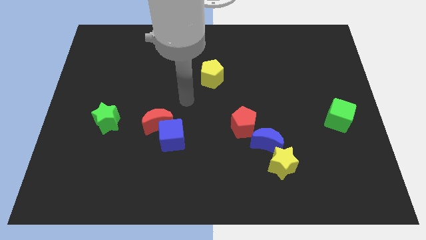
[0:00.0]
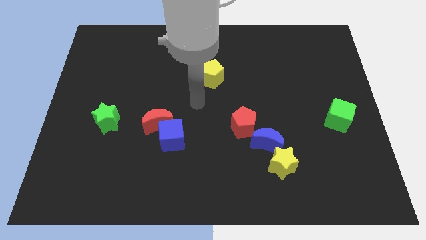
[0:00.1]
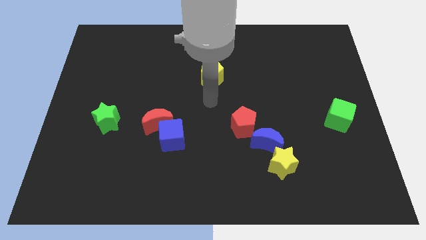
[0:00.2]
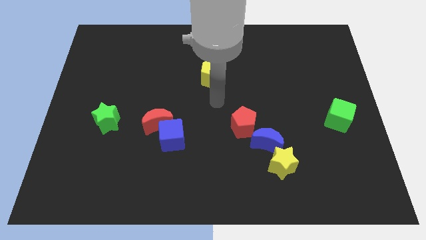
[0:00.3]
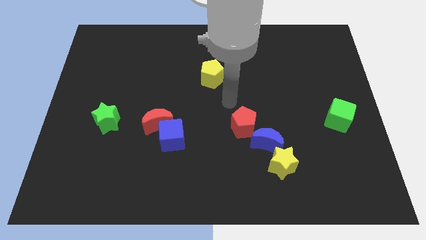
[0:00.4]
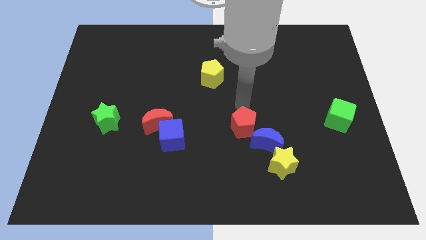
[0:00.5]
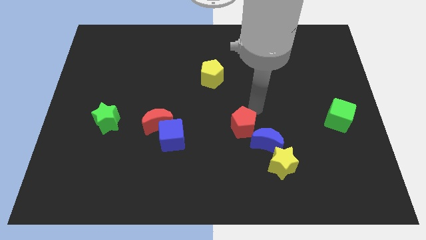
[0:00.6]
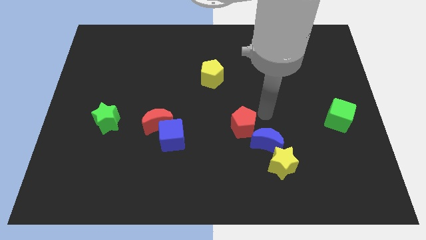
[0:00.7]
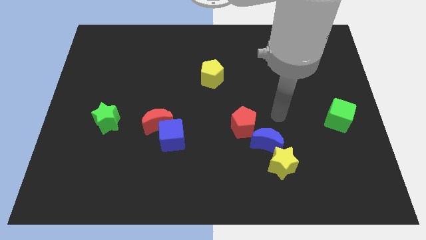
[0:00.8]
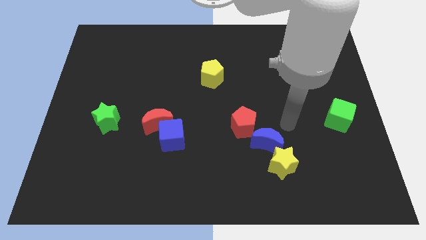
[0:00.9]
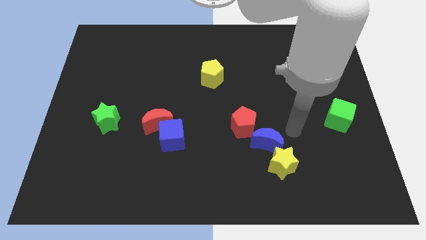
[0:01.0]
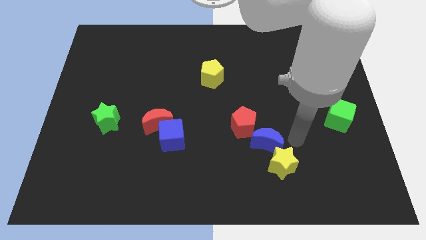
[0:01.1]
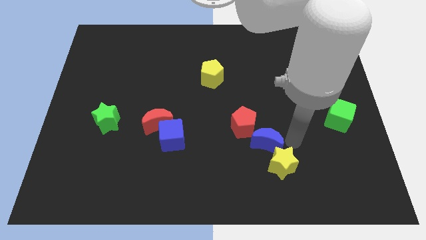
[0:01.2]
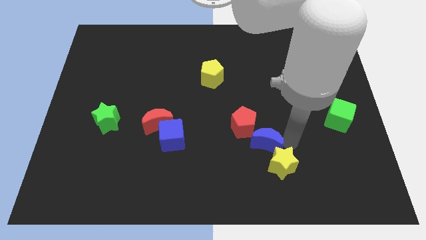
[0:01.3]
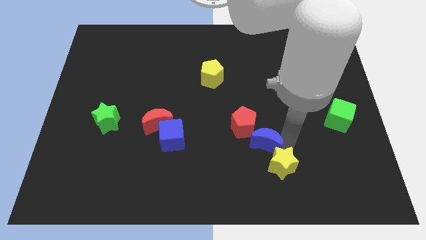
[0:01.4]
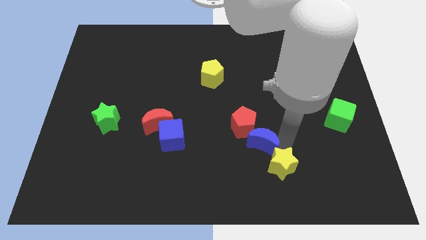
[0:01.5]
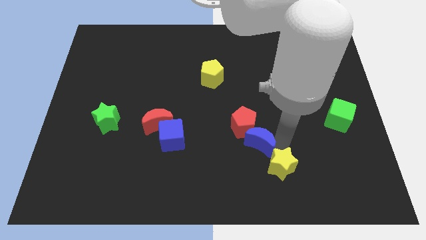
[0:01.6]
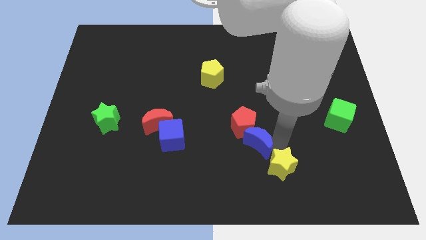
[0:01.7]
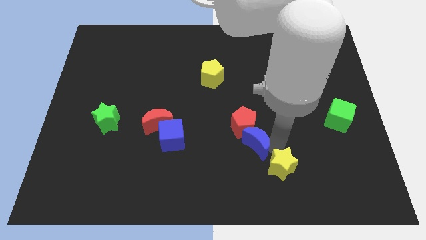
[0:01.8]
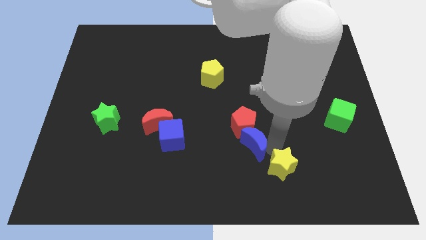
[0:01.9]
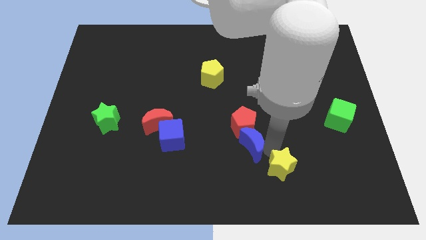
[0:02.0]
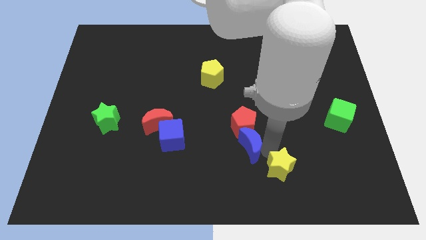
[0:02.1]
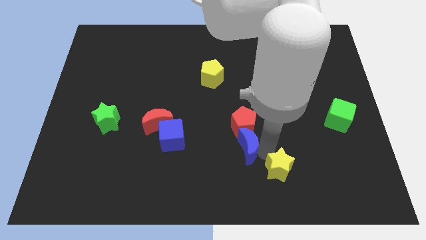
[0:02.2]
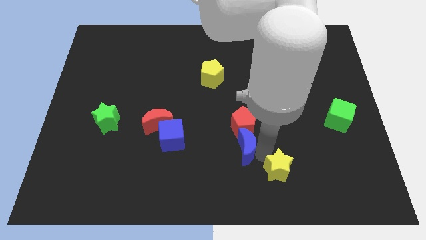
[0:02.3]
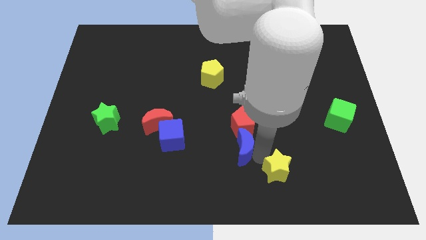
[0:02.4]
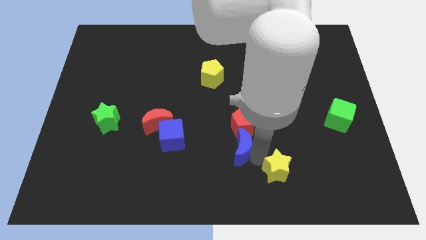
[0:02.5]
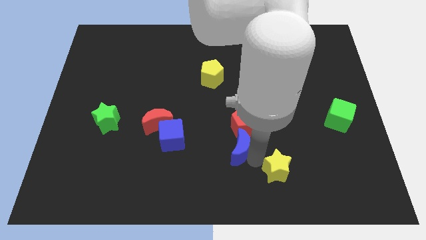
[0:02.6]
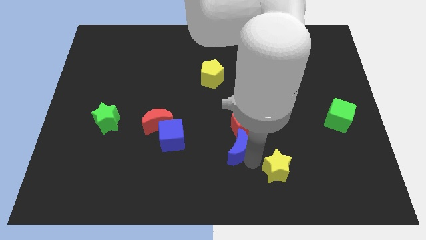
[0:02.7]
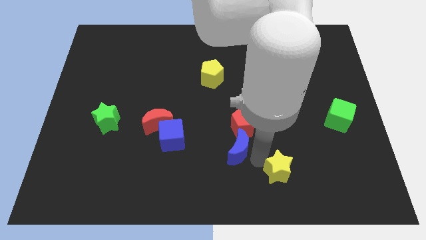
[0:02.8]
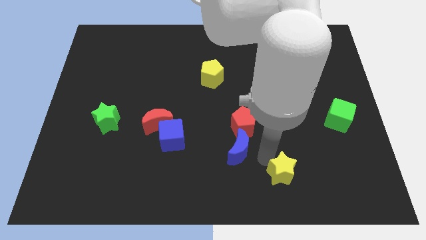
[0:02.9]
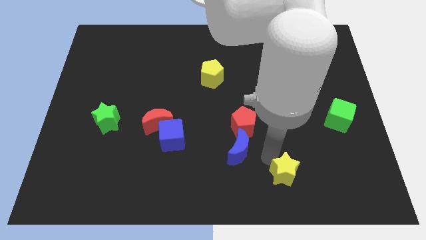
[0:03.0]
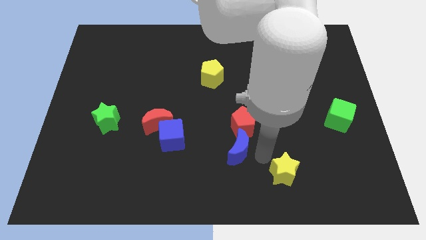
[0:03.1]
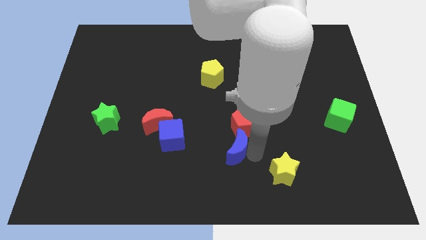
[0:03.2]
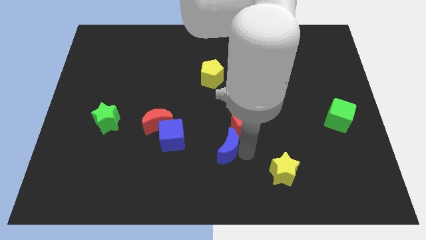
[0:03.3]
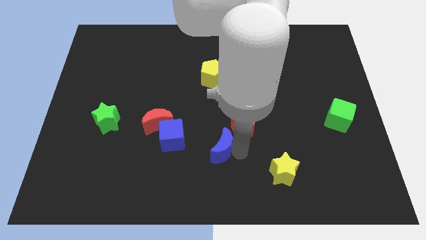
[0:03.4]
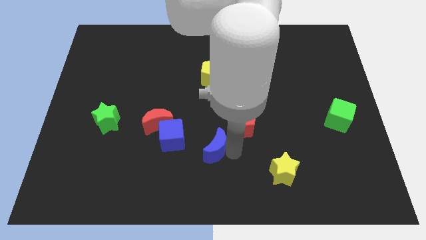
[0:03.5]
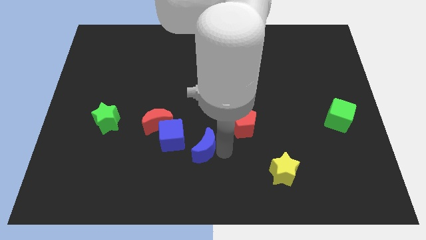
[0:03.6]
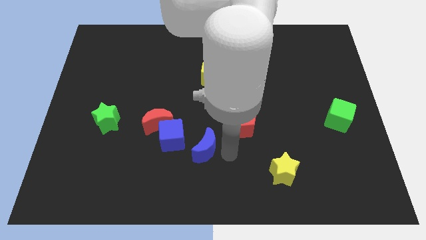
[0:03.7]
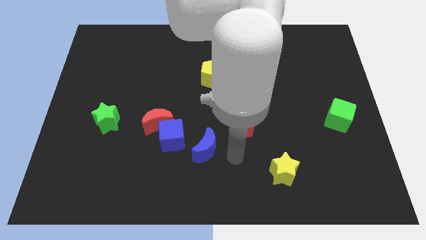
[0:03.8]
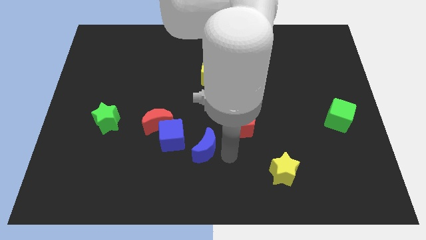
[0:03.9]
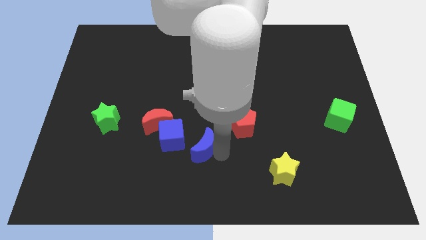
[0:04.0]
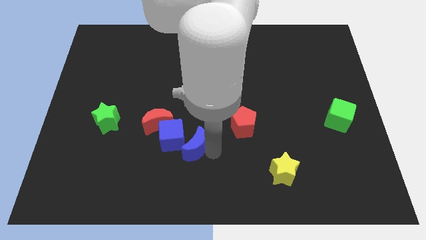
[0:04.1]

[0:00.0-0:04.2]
move the blue moon diagonally down and to the right of the red moon

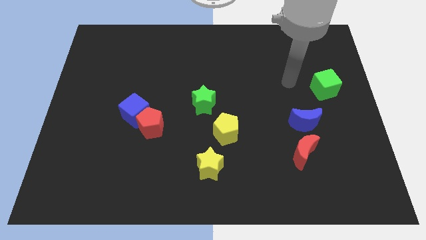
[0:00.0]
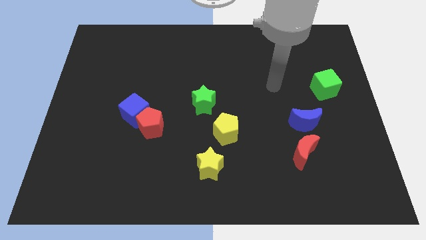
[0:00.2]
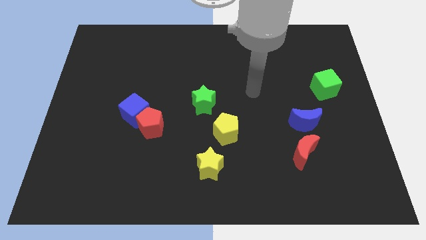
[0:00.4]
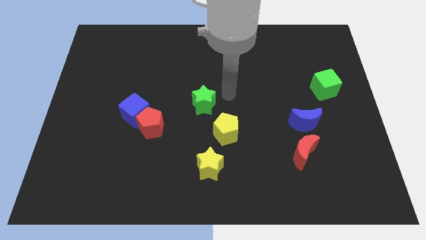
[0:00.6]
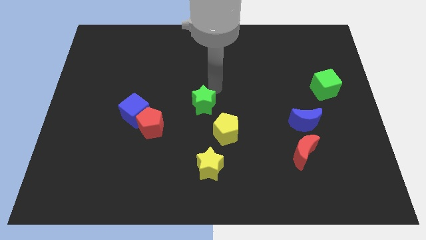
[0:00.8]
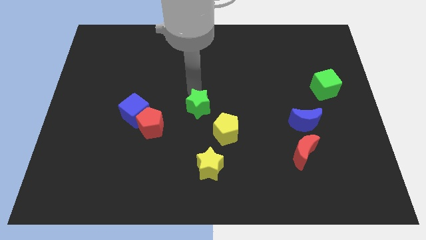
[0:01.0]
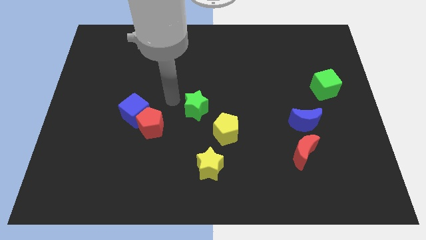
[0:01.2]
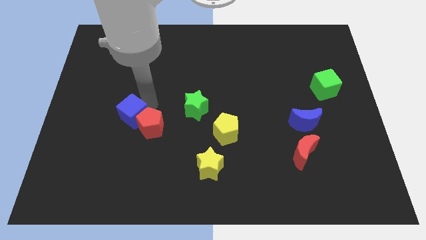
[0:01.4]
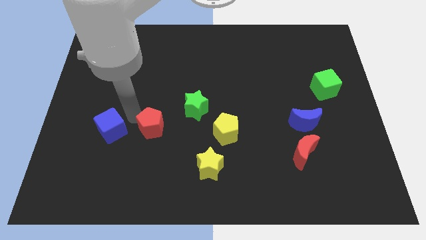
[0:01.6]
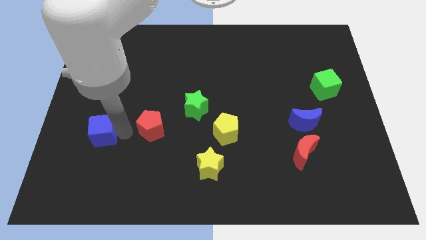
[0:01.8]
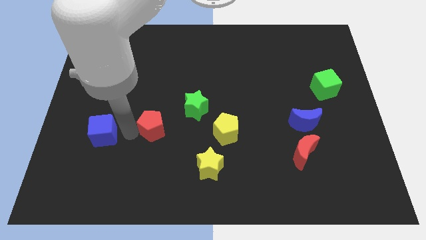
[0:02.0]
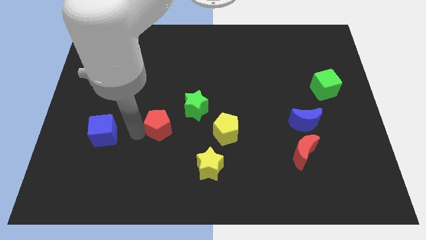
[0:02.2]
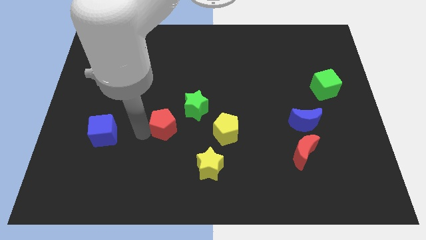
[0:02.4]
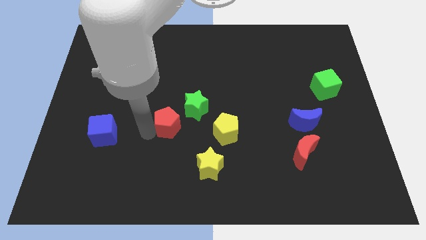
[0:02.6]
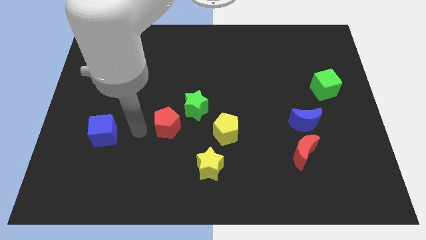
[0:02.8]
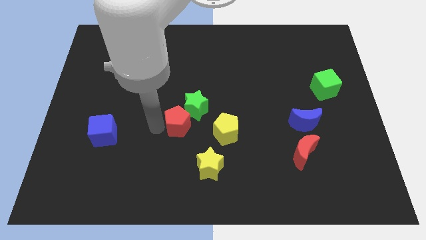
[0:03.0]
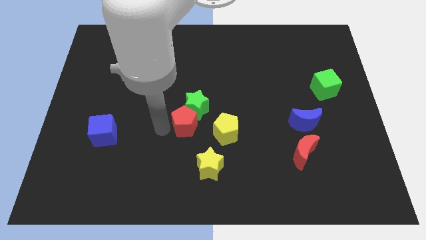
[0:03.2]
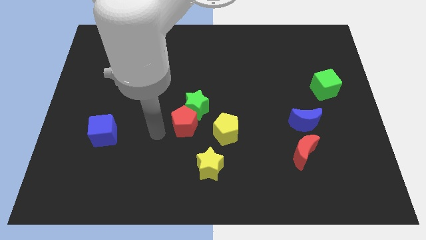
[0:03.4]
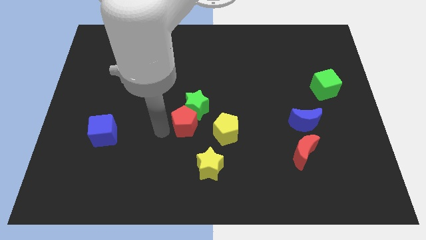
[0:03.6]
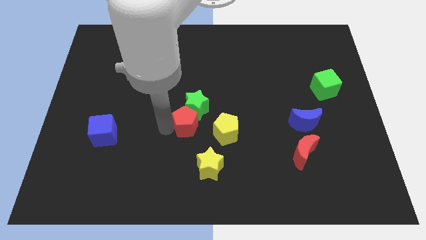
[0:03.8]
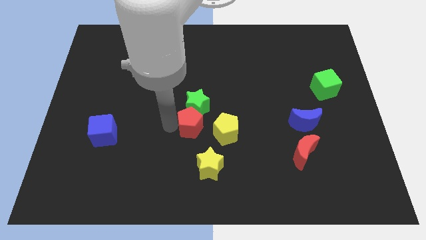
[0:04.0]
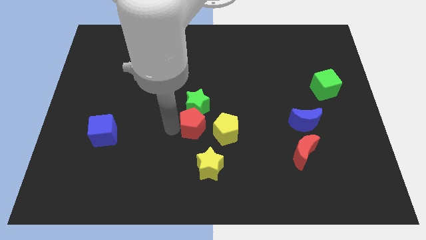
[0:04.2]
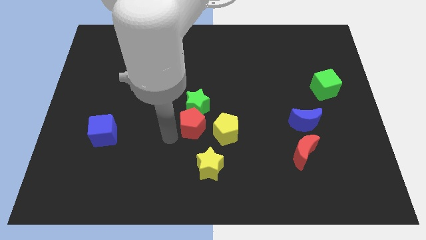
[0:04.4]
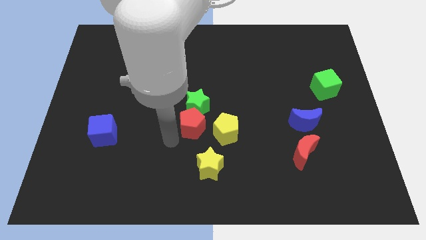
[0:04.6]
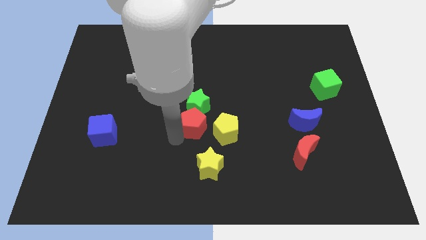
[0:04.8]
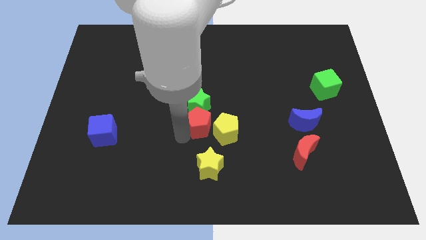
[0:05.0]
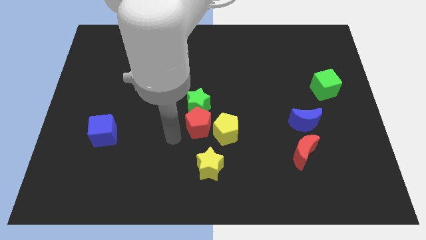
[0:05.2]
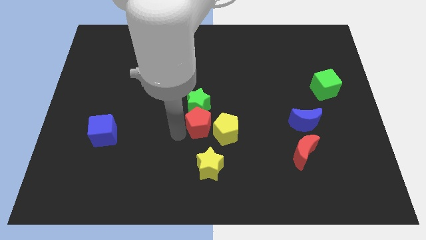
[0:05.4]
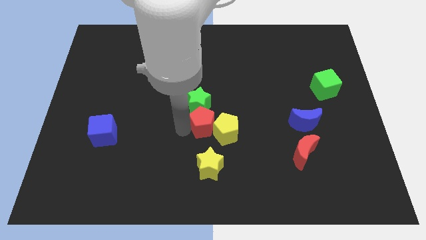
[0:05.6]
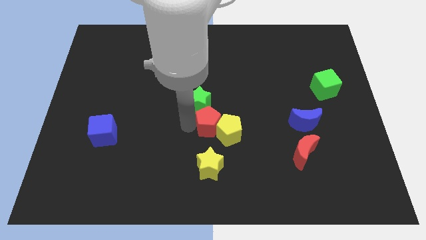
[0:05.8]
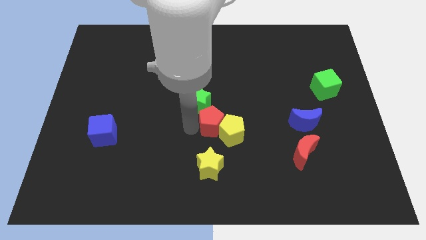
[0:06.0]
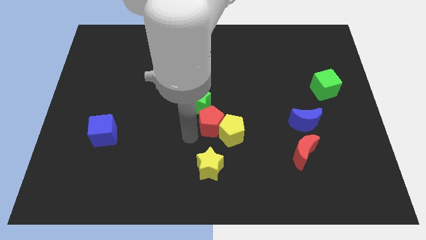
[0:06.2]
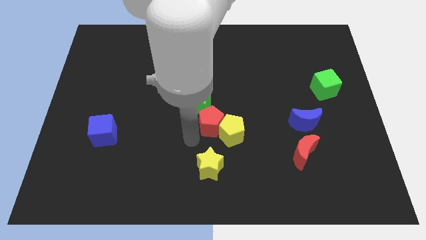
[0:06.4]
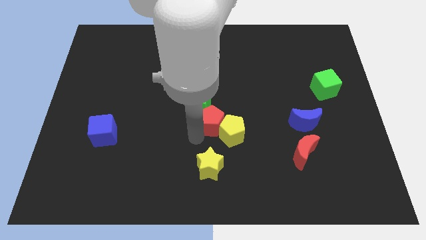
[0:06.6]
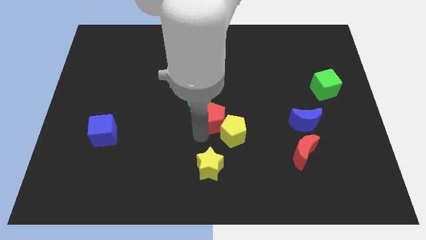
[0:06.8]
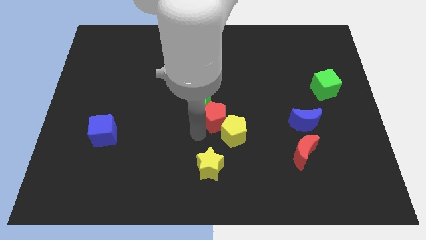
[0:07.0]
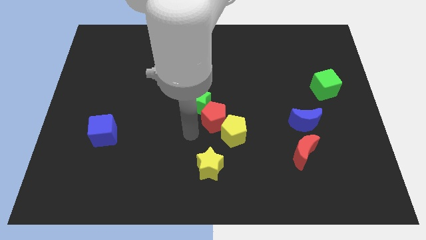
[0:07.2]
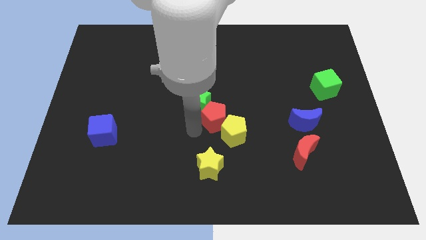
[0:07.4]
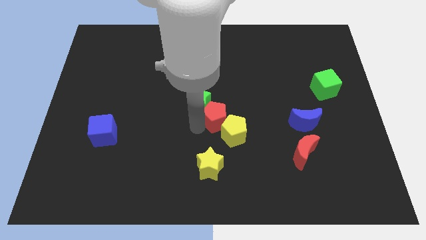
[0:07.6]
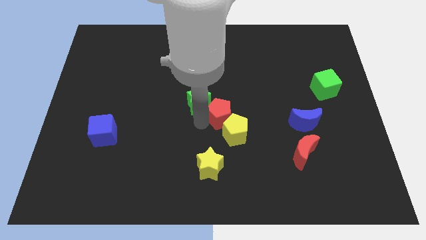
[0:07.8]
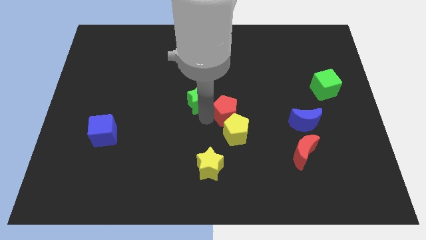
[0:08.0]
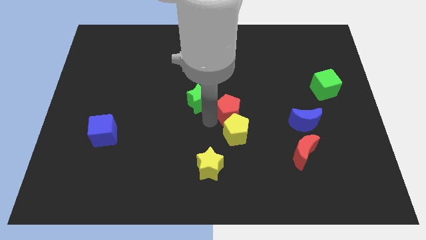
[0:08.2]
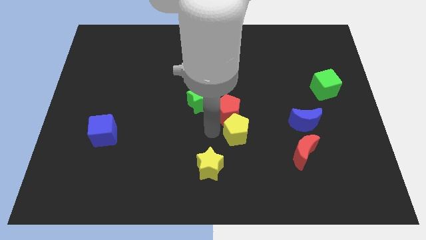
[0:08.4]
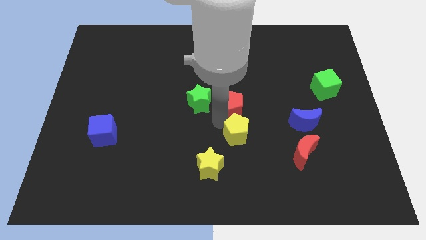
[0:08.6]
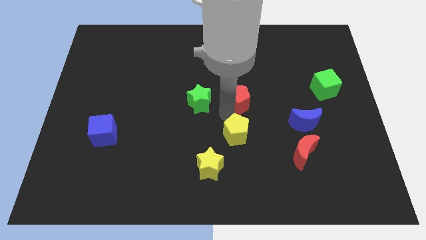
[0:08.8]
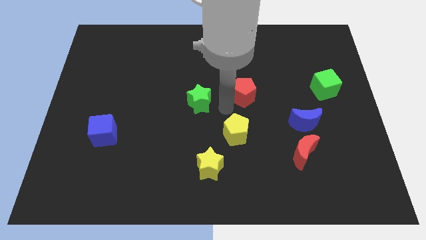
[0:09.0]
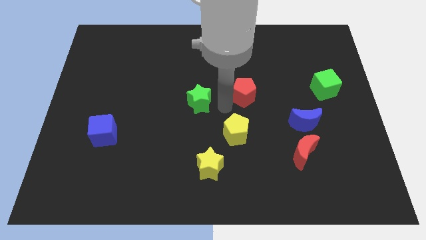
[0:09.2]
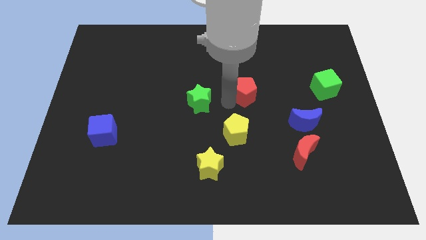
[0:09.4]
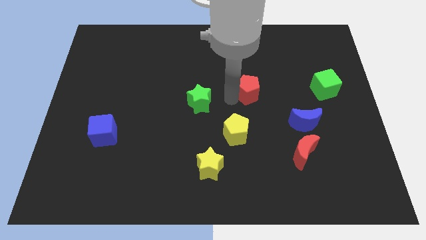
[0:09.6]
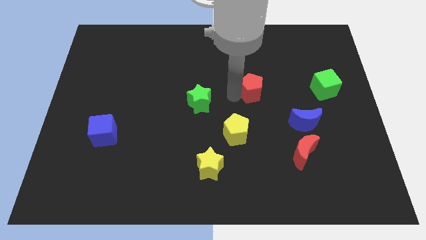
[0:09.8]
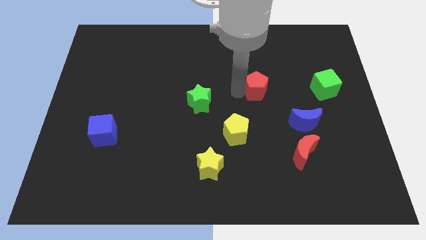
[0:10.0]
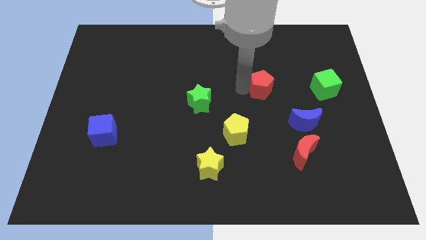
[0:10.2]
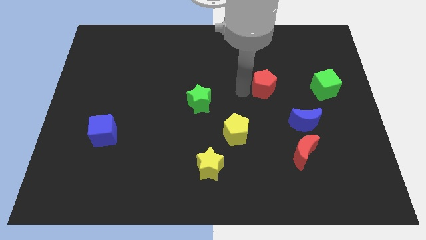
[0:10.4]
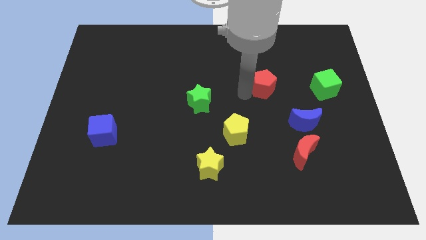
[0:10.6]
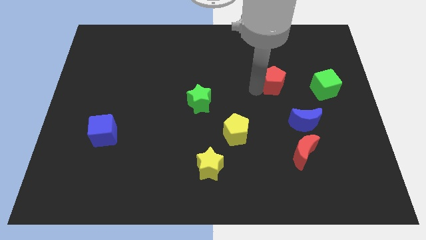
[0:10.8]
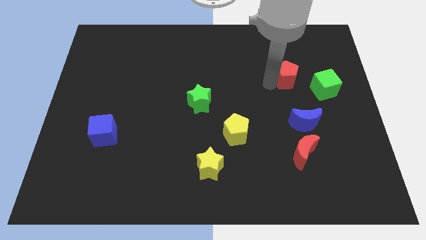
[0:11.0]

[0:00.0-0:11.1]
put the red pentagon to the top left of the green cube
